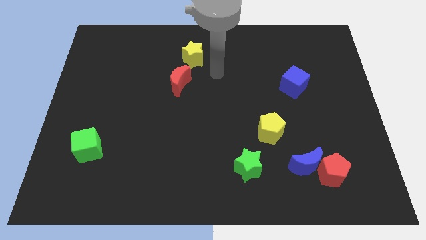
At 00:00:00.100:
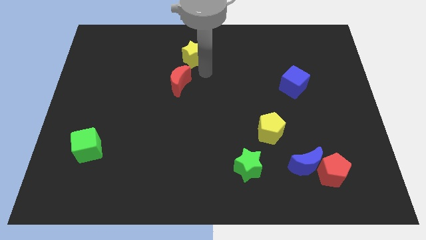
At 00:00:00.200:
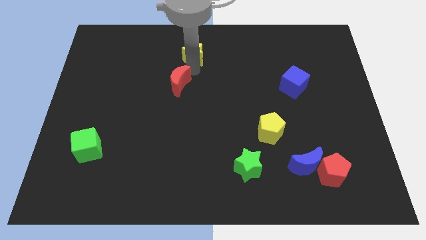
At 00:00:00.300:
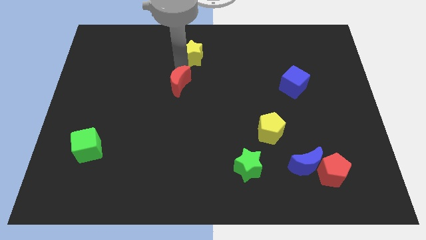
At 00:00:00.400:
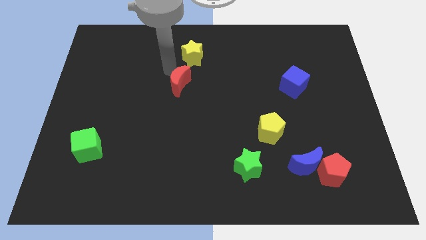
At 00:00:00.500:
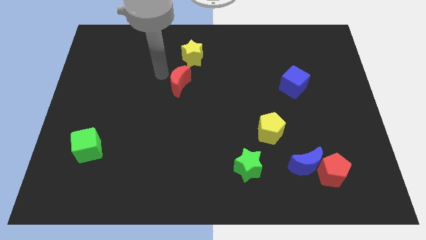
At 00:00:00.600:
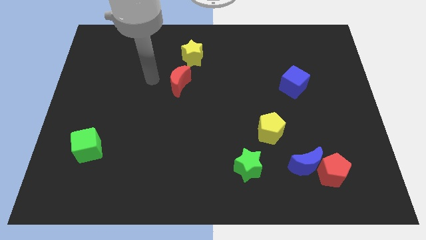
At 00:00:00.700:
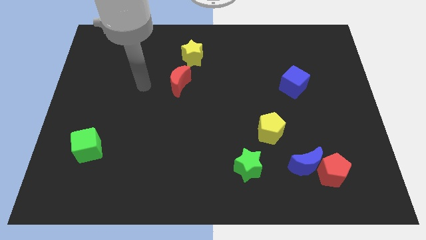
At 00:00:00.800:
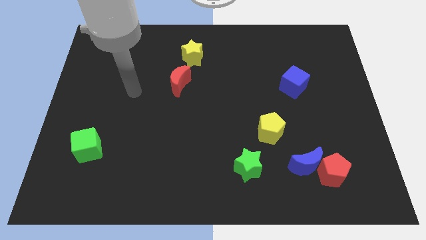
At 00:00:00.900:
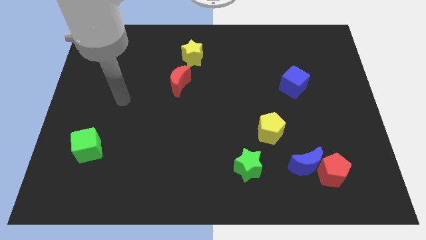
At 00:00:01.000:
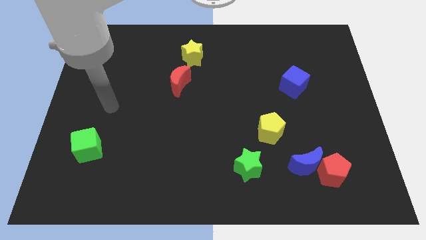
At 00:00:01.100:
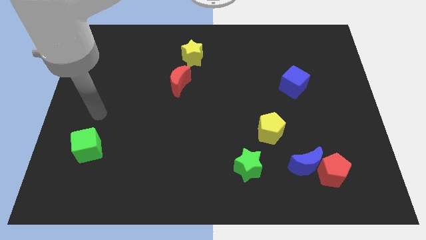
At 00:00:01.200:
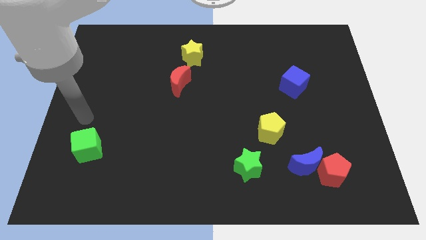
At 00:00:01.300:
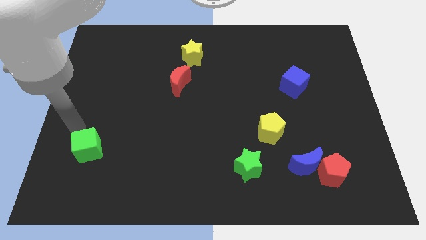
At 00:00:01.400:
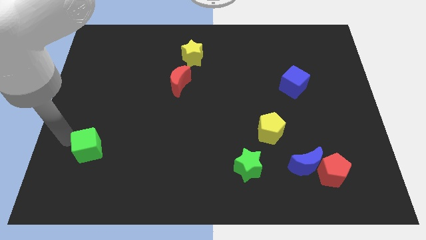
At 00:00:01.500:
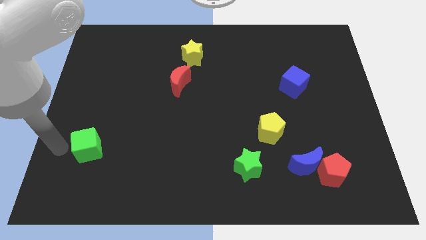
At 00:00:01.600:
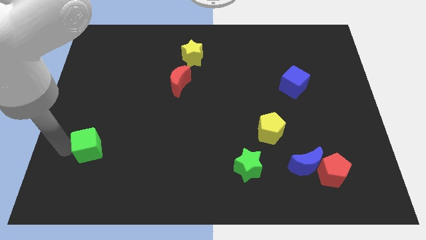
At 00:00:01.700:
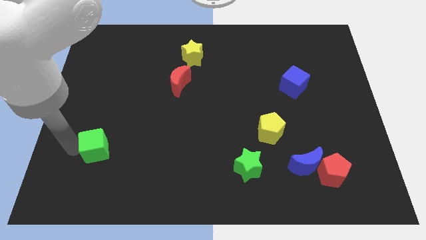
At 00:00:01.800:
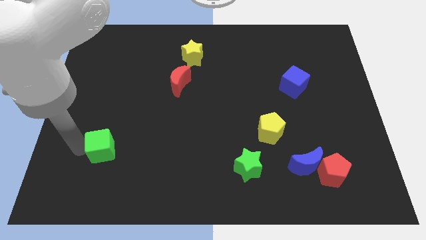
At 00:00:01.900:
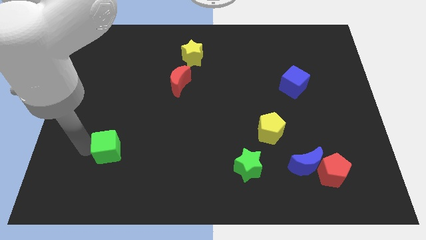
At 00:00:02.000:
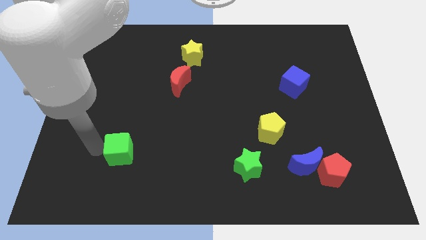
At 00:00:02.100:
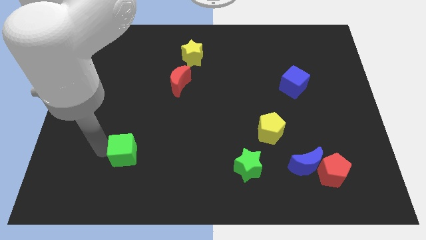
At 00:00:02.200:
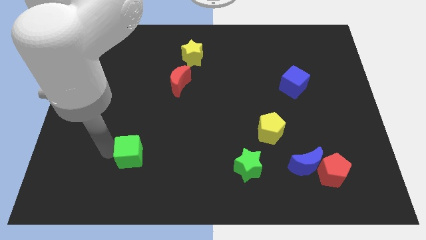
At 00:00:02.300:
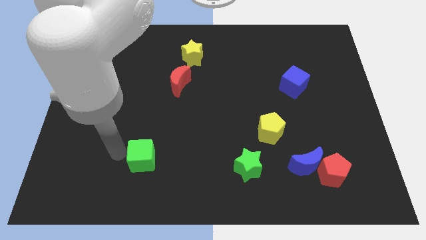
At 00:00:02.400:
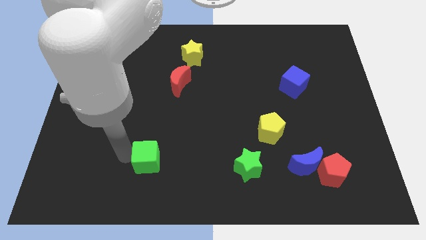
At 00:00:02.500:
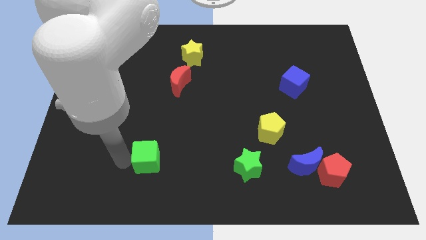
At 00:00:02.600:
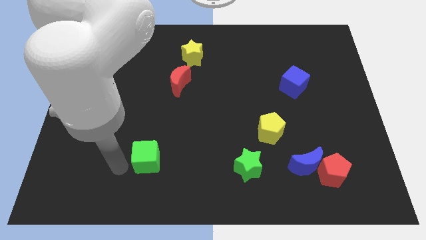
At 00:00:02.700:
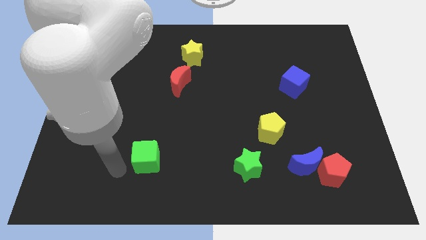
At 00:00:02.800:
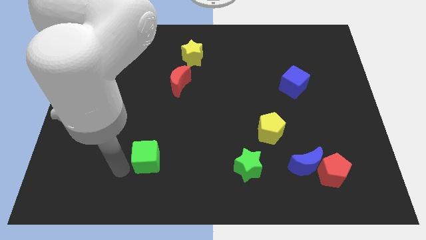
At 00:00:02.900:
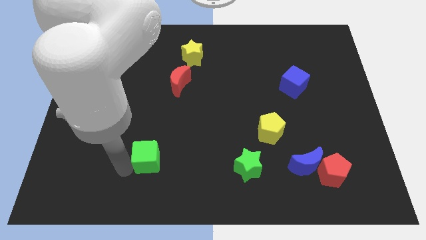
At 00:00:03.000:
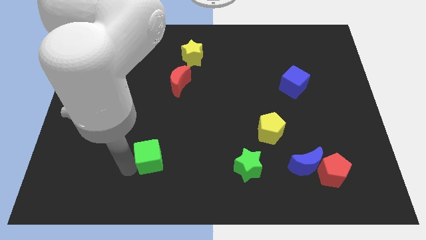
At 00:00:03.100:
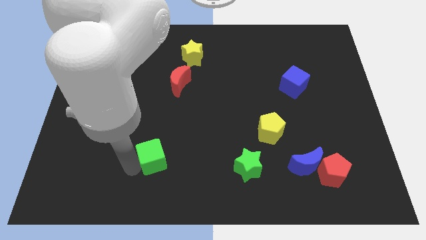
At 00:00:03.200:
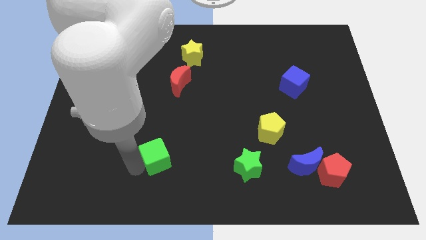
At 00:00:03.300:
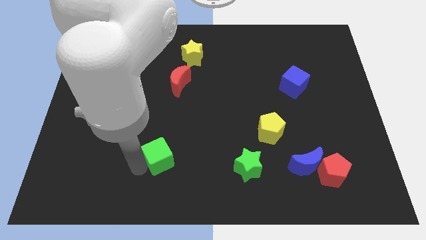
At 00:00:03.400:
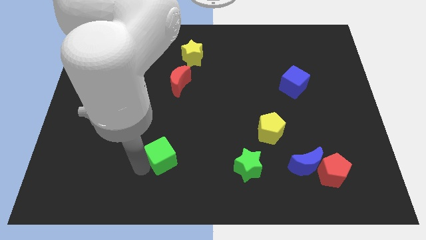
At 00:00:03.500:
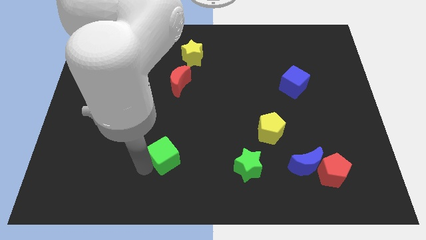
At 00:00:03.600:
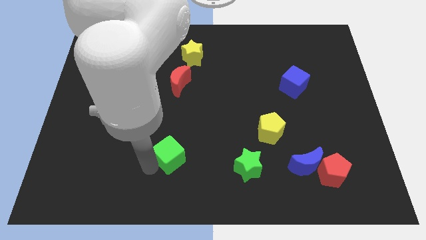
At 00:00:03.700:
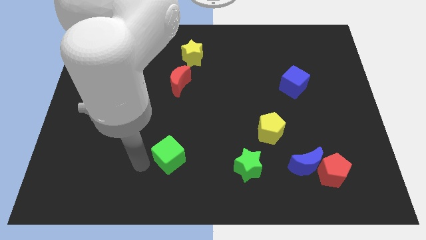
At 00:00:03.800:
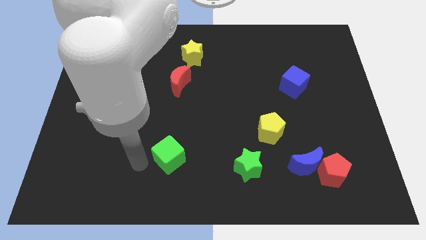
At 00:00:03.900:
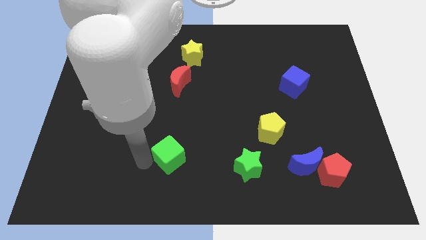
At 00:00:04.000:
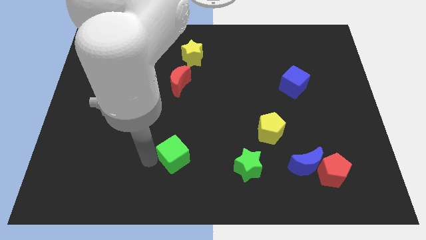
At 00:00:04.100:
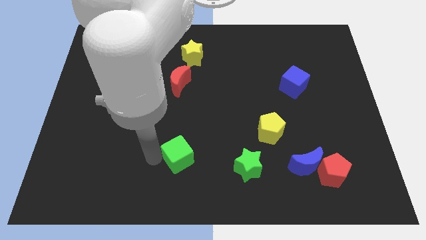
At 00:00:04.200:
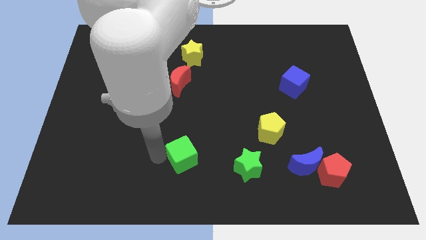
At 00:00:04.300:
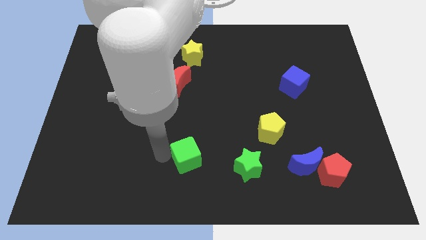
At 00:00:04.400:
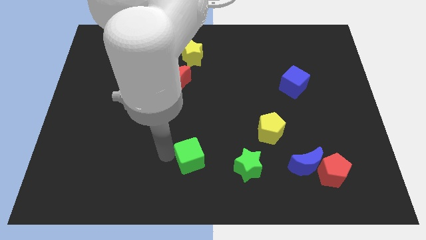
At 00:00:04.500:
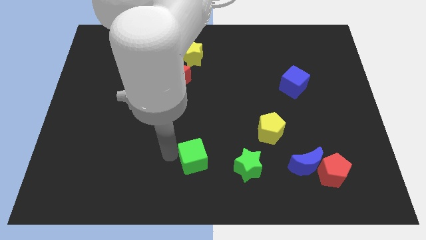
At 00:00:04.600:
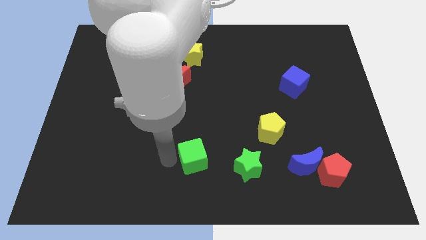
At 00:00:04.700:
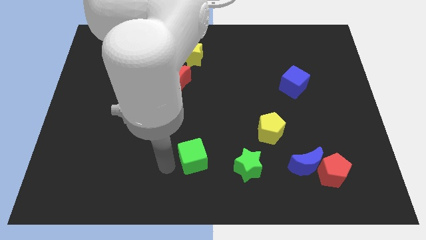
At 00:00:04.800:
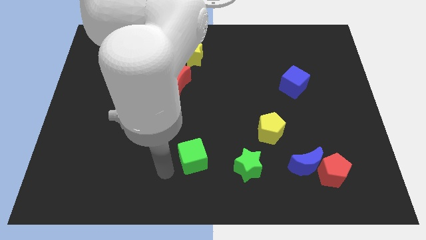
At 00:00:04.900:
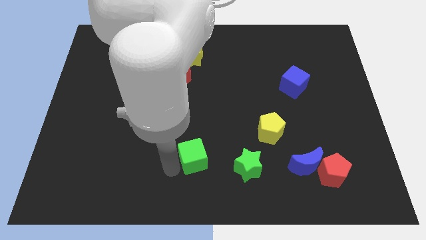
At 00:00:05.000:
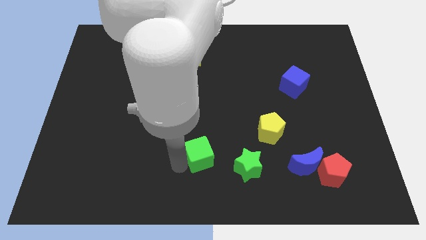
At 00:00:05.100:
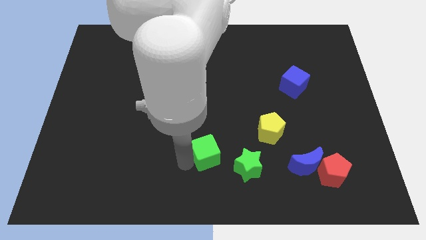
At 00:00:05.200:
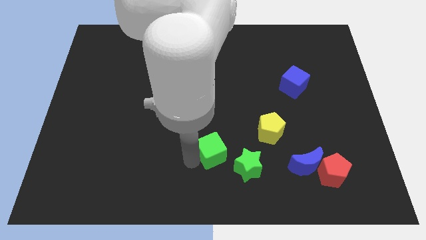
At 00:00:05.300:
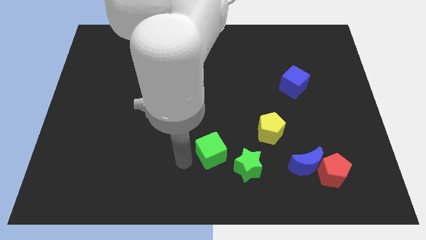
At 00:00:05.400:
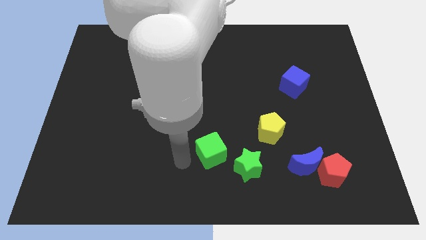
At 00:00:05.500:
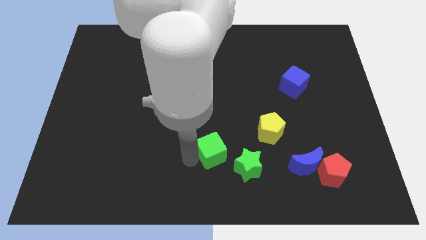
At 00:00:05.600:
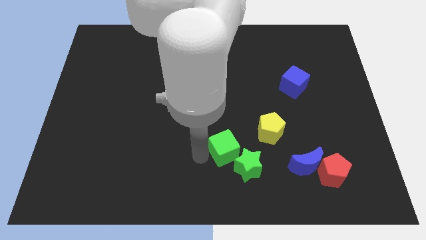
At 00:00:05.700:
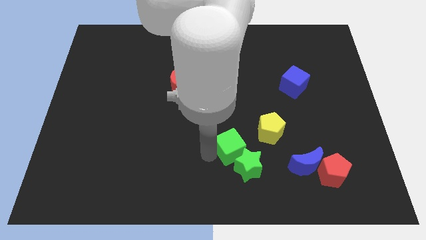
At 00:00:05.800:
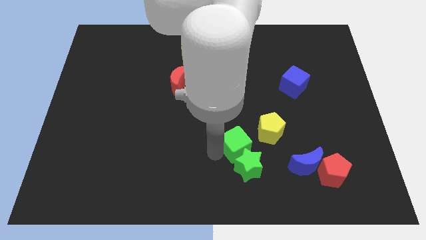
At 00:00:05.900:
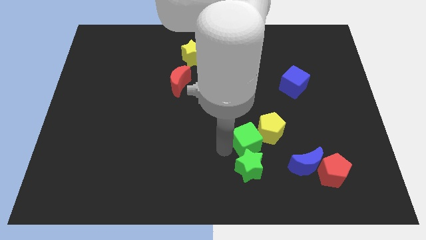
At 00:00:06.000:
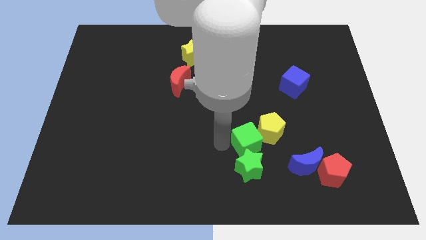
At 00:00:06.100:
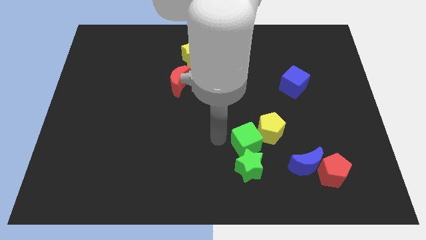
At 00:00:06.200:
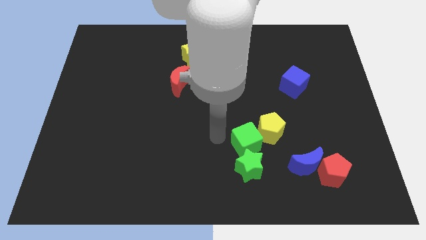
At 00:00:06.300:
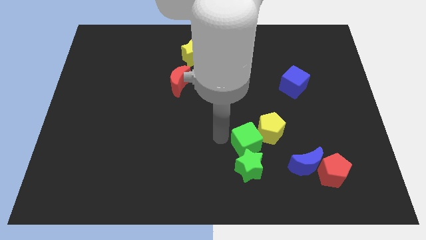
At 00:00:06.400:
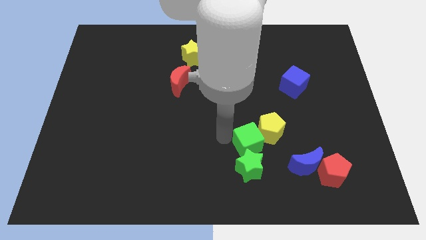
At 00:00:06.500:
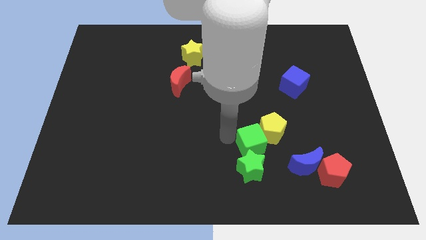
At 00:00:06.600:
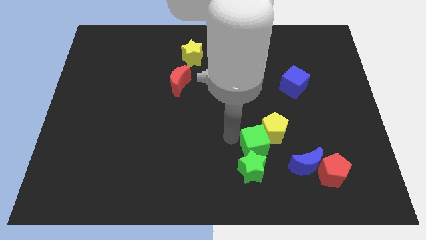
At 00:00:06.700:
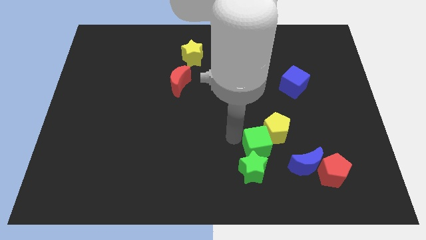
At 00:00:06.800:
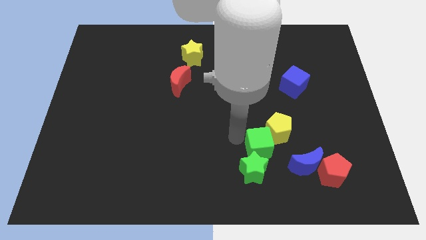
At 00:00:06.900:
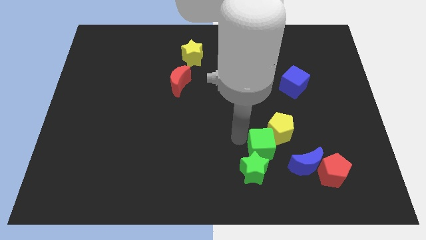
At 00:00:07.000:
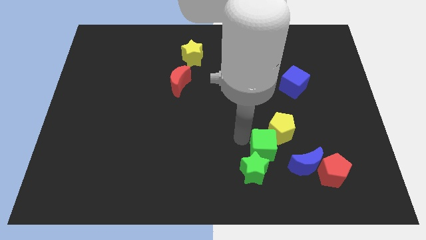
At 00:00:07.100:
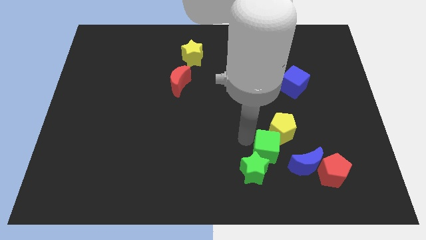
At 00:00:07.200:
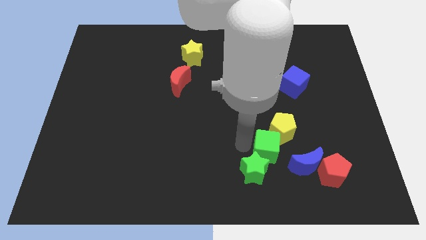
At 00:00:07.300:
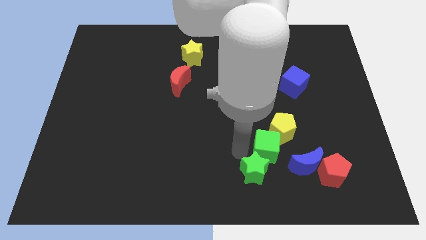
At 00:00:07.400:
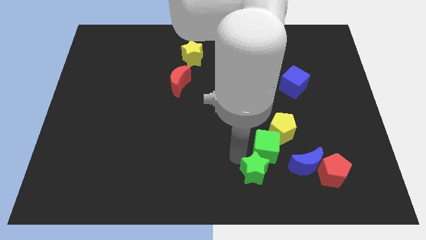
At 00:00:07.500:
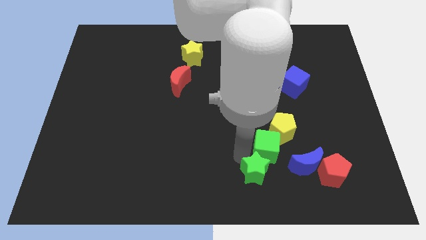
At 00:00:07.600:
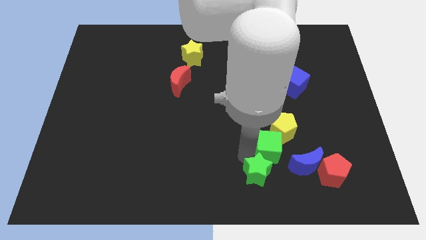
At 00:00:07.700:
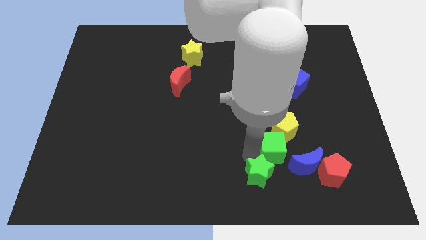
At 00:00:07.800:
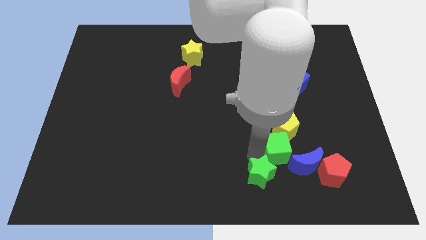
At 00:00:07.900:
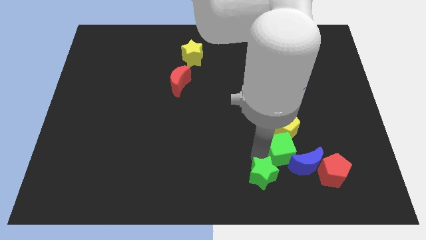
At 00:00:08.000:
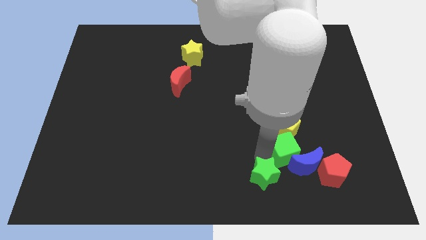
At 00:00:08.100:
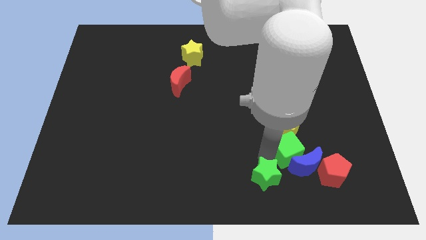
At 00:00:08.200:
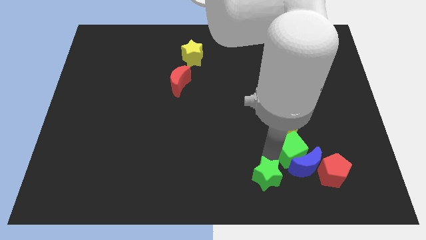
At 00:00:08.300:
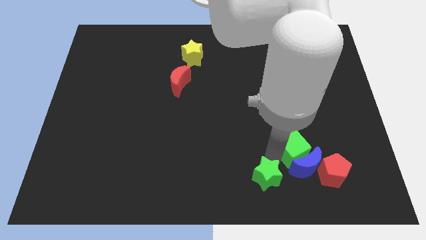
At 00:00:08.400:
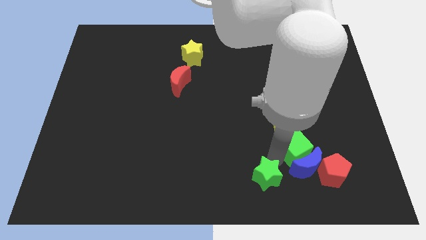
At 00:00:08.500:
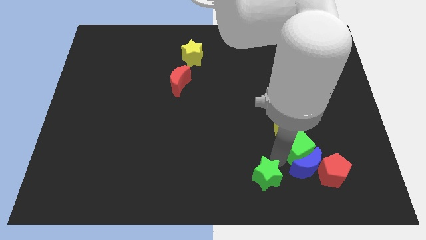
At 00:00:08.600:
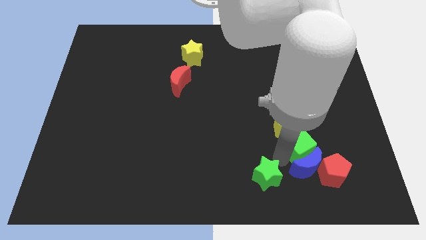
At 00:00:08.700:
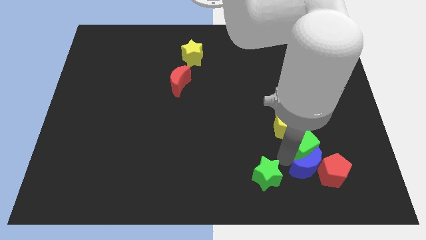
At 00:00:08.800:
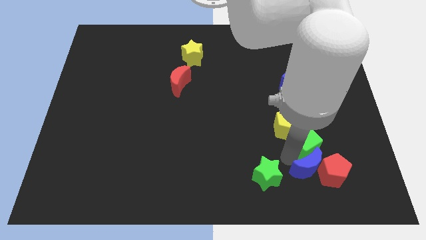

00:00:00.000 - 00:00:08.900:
push the green cube to the top side of the red pentagon
